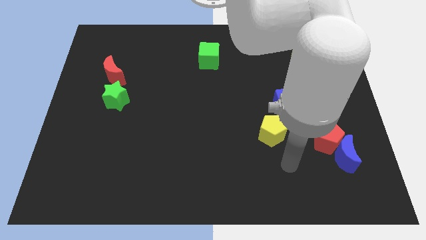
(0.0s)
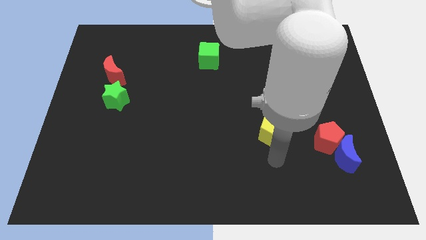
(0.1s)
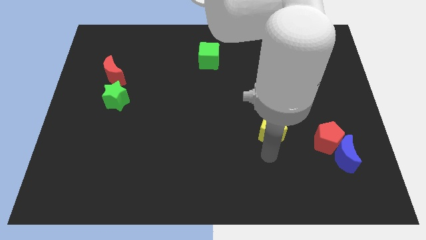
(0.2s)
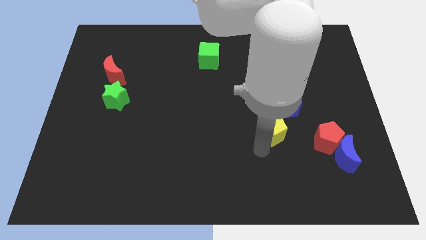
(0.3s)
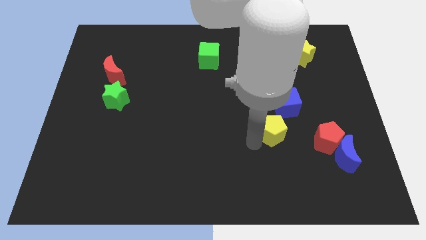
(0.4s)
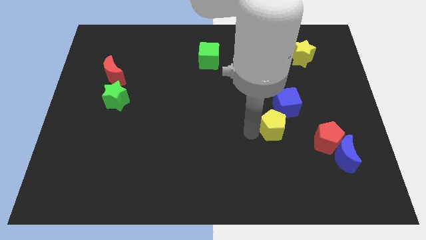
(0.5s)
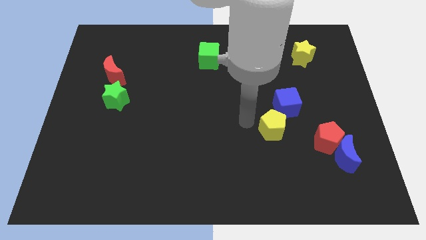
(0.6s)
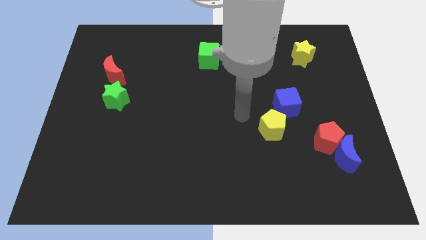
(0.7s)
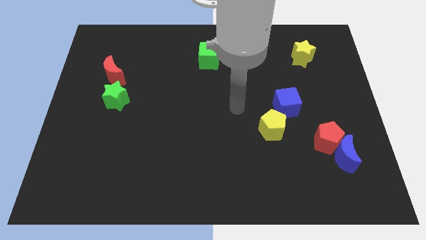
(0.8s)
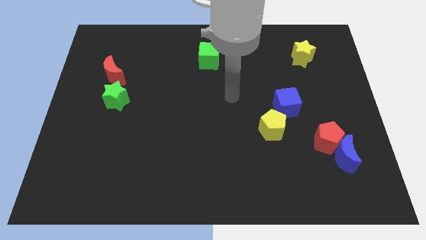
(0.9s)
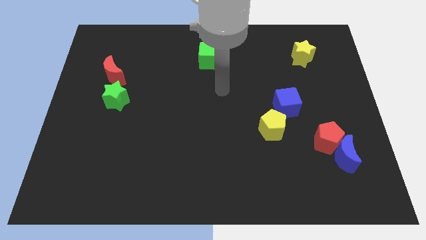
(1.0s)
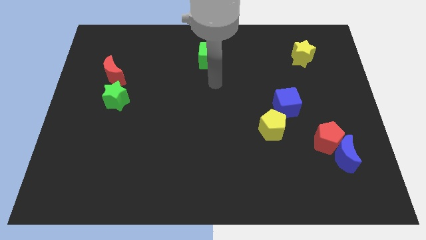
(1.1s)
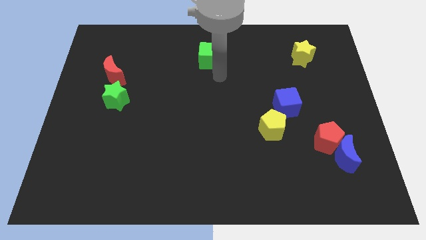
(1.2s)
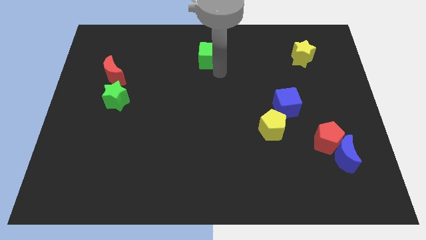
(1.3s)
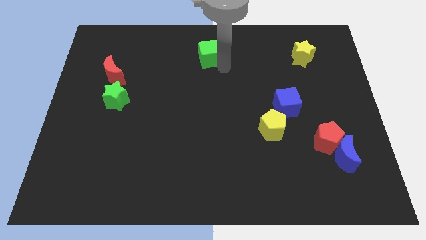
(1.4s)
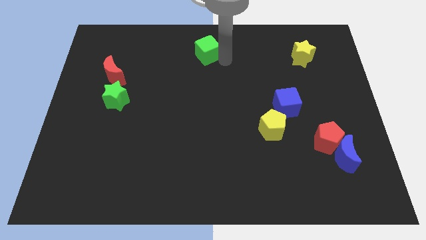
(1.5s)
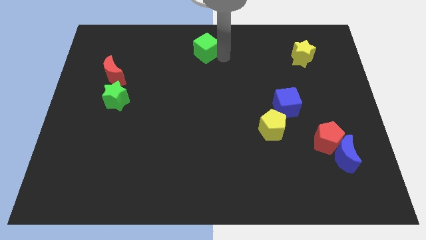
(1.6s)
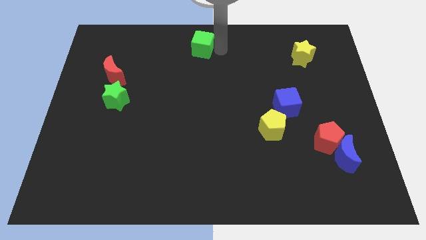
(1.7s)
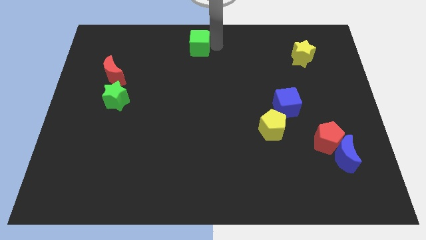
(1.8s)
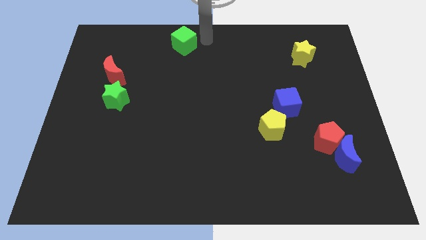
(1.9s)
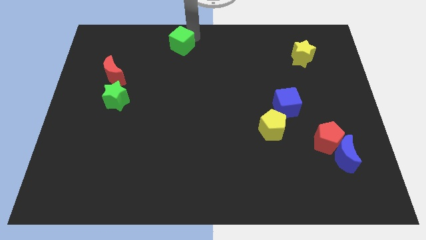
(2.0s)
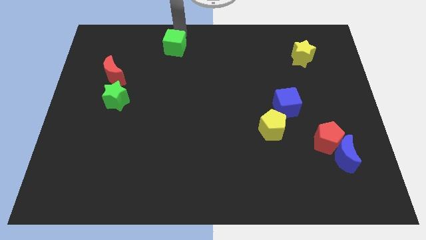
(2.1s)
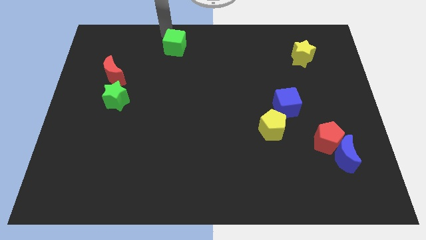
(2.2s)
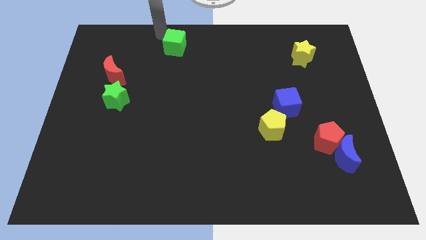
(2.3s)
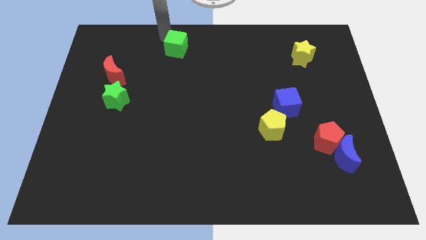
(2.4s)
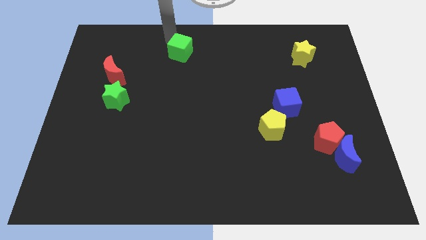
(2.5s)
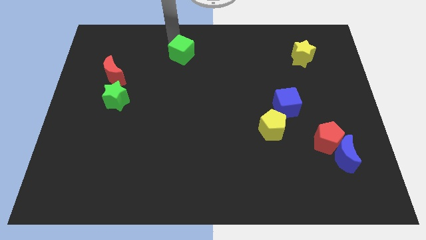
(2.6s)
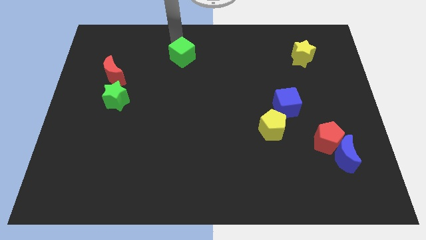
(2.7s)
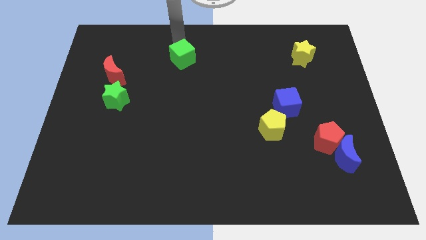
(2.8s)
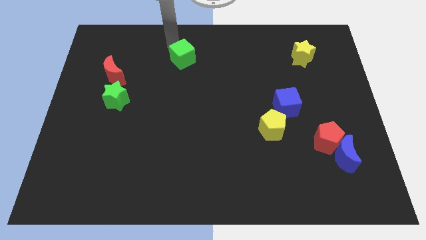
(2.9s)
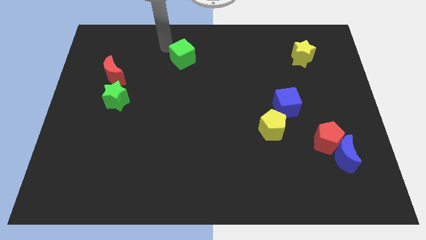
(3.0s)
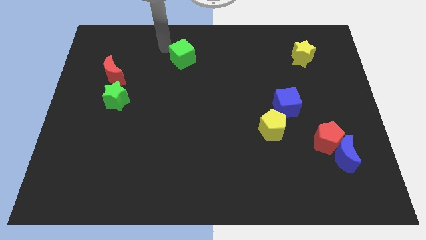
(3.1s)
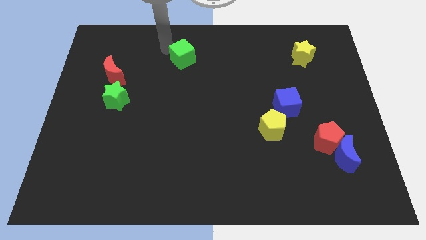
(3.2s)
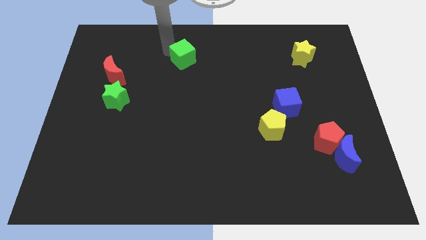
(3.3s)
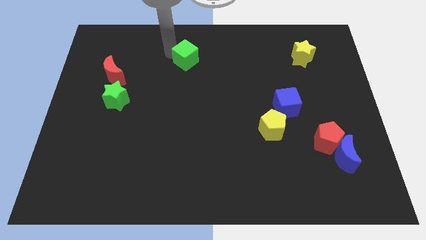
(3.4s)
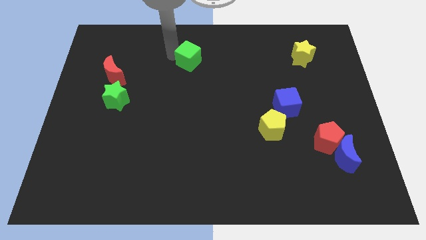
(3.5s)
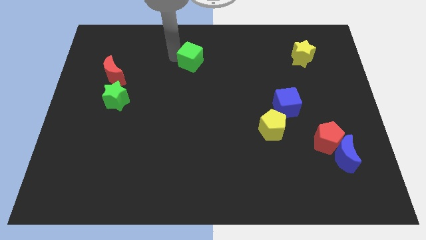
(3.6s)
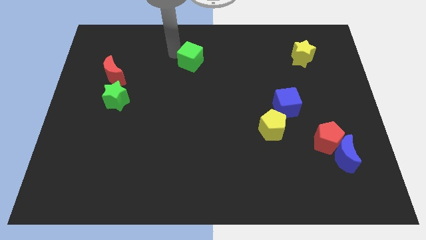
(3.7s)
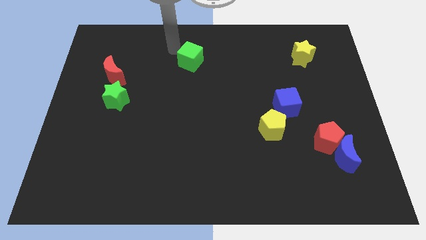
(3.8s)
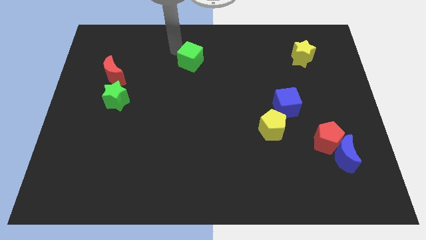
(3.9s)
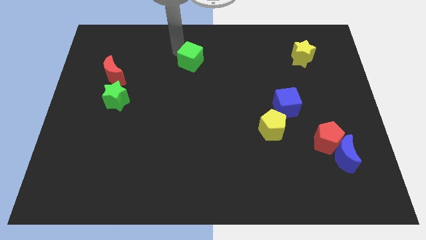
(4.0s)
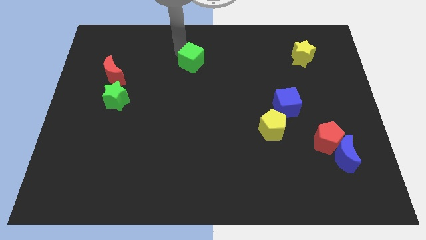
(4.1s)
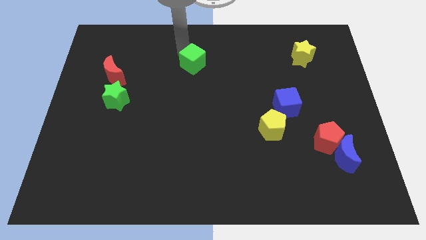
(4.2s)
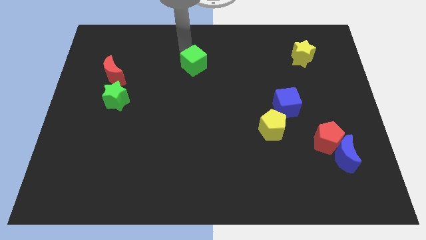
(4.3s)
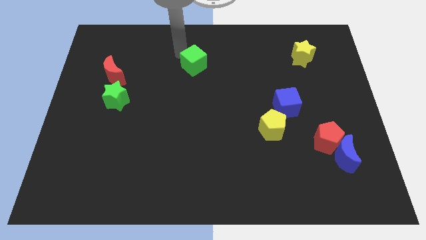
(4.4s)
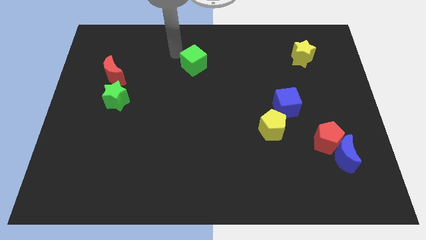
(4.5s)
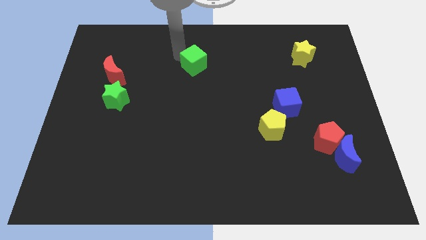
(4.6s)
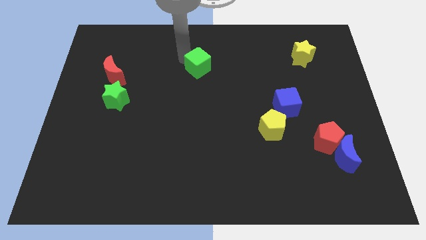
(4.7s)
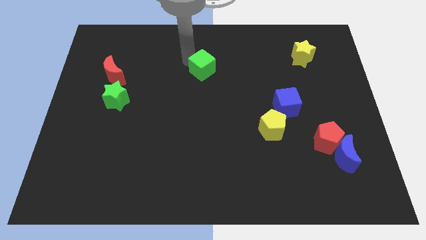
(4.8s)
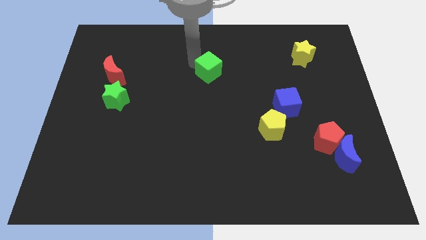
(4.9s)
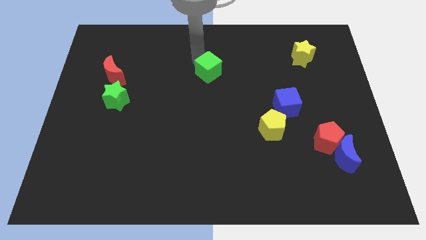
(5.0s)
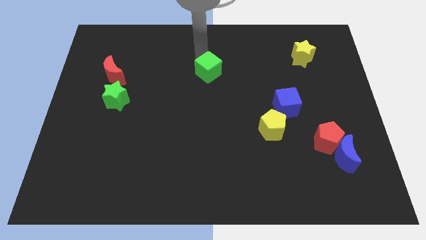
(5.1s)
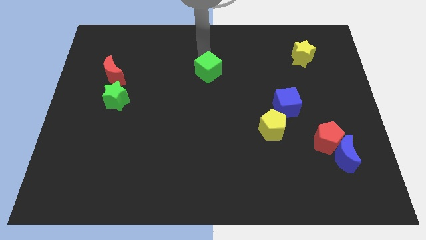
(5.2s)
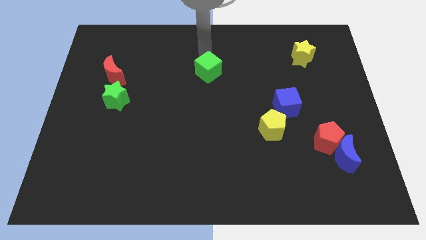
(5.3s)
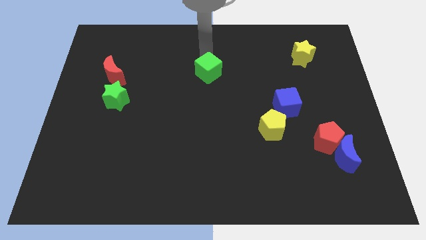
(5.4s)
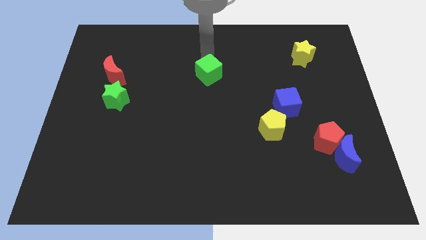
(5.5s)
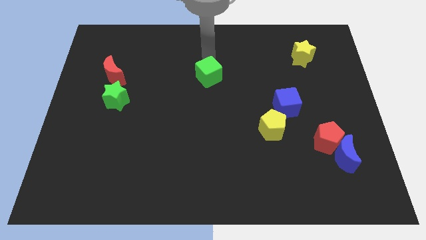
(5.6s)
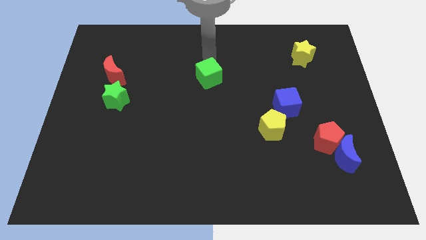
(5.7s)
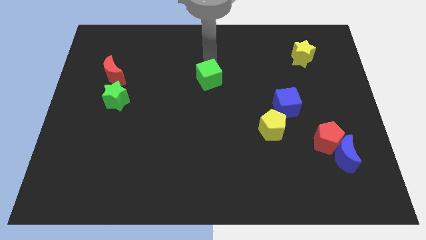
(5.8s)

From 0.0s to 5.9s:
push the green cube slightly down

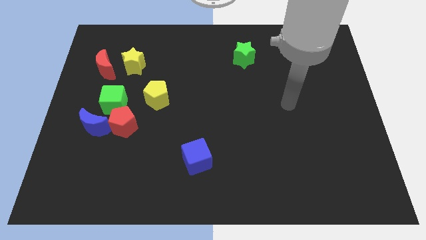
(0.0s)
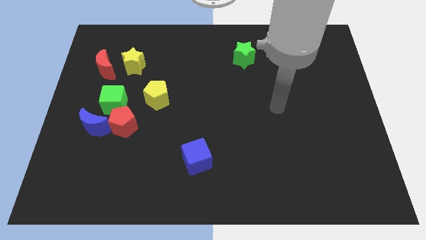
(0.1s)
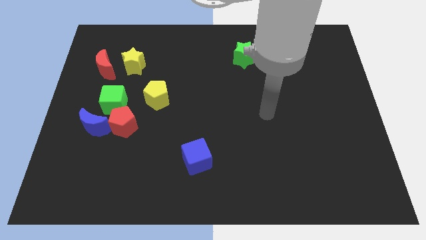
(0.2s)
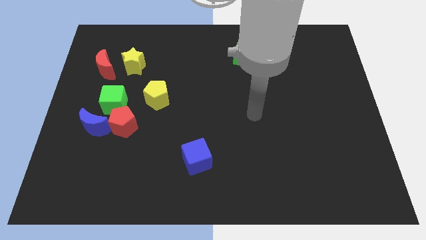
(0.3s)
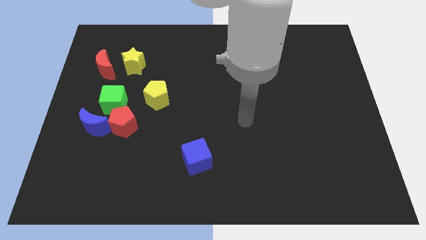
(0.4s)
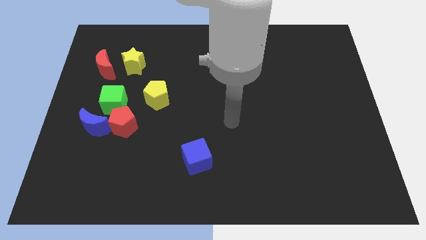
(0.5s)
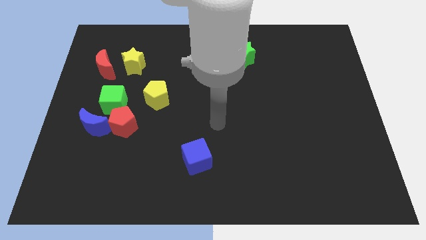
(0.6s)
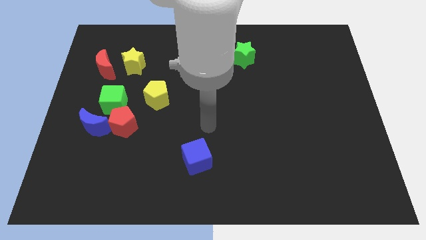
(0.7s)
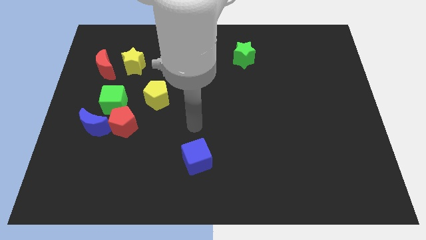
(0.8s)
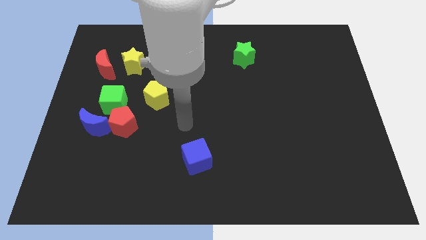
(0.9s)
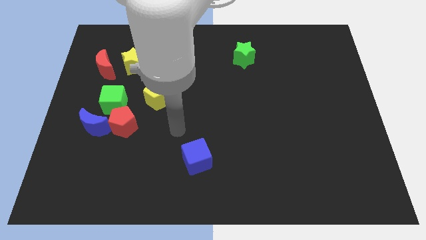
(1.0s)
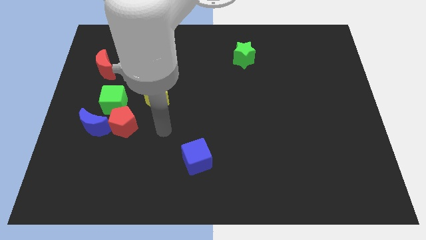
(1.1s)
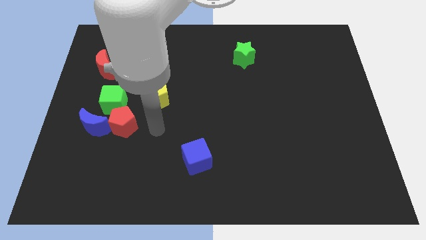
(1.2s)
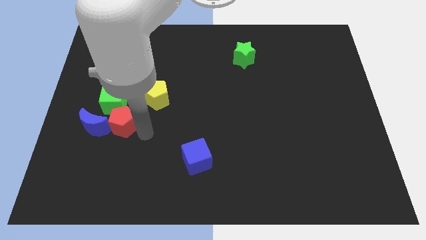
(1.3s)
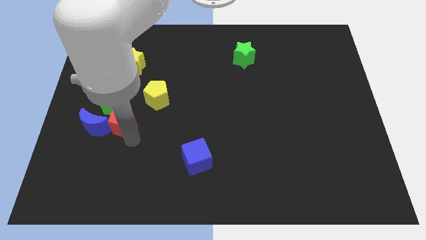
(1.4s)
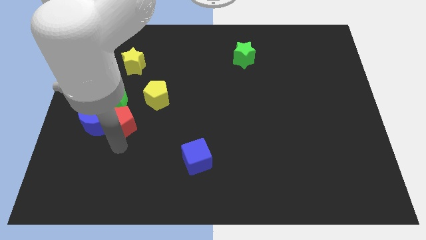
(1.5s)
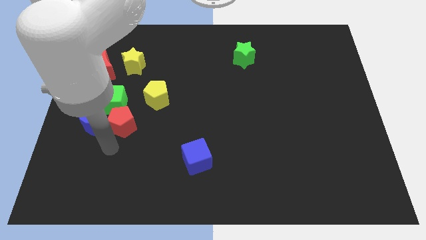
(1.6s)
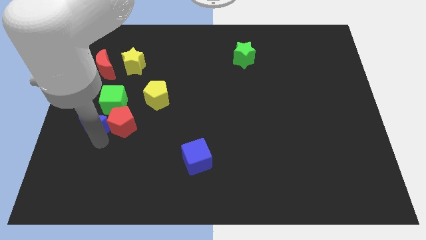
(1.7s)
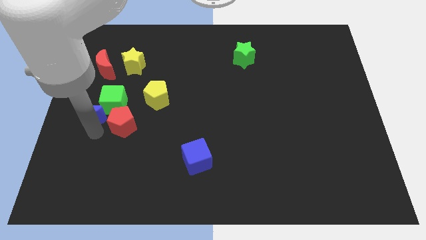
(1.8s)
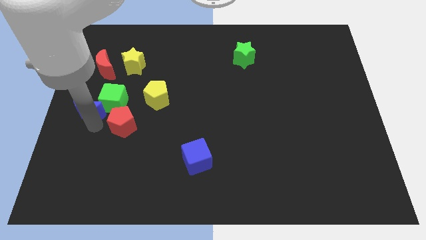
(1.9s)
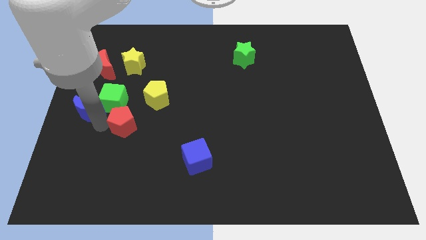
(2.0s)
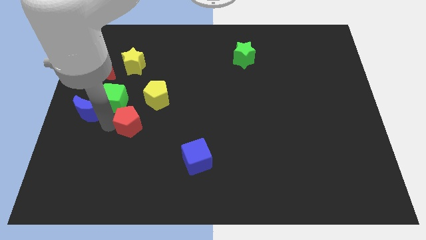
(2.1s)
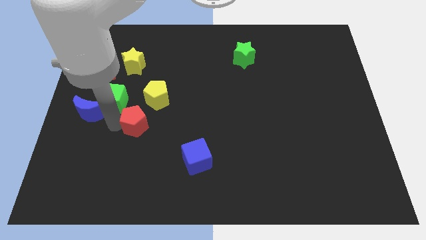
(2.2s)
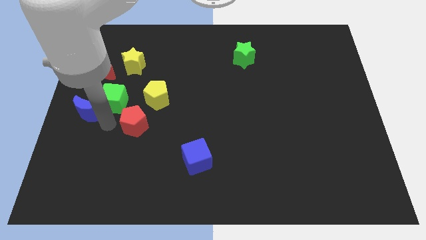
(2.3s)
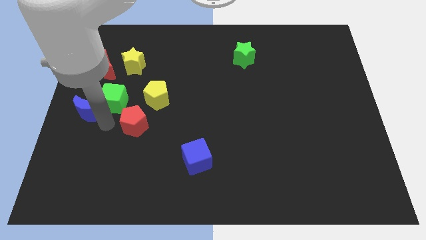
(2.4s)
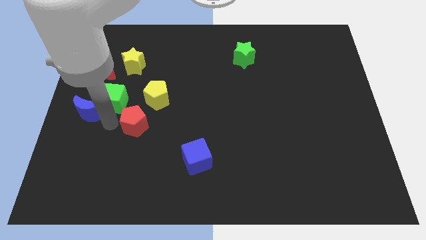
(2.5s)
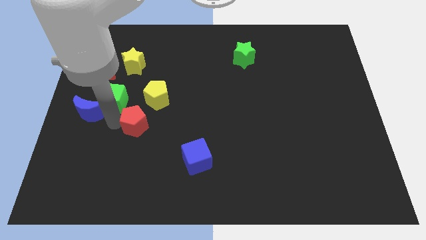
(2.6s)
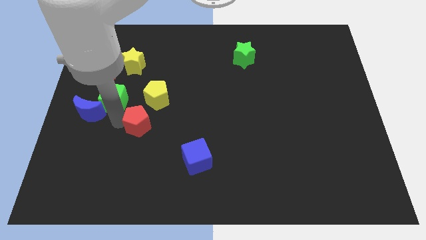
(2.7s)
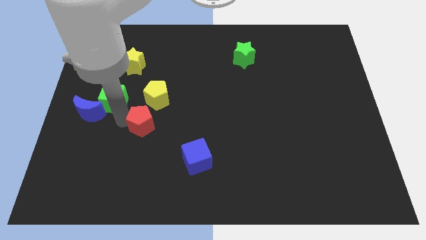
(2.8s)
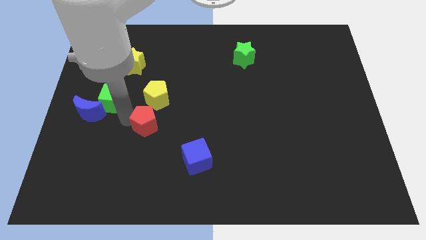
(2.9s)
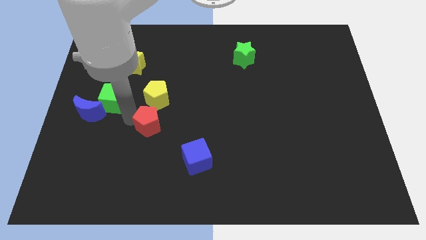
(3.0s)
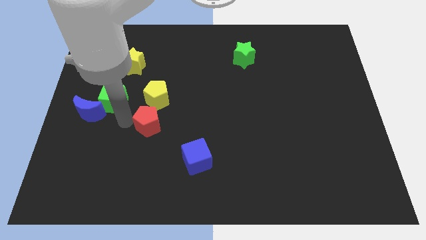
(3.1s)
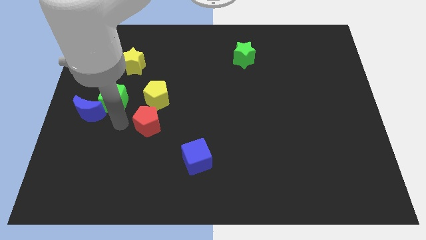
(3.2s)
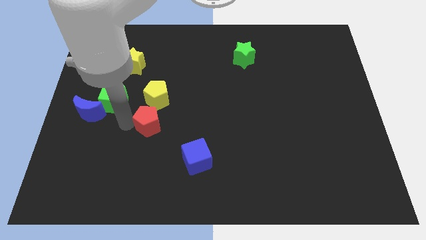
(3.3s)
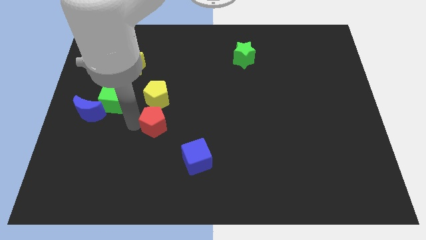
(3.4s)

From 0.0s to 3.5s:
push the red pentagon somewhat to the right
